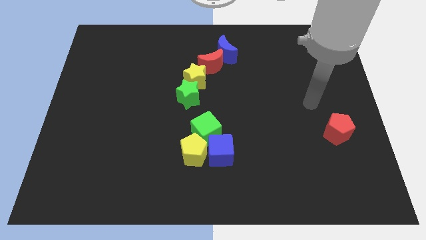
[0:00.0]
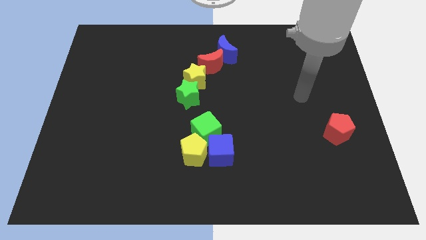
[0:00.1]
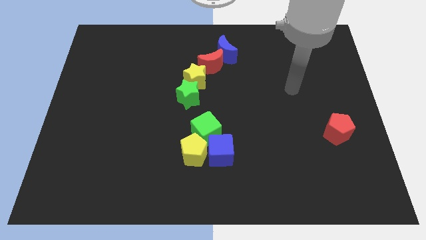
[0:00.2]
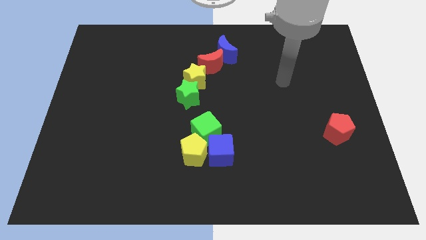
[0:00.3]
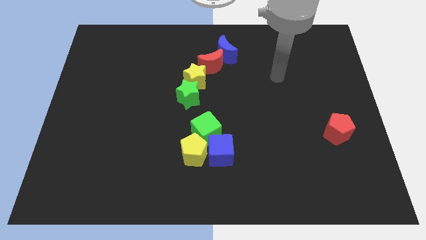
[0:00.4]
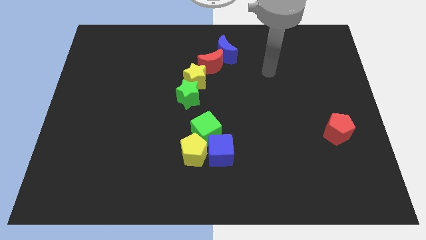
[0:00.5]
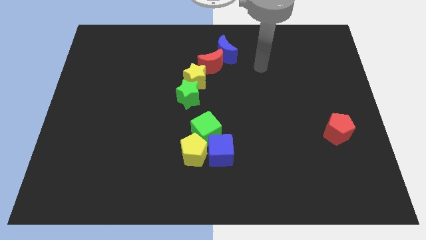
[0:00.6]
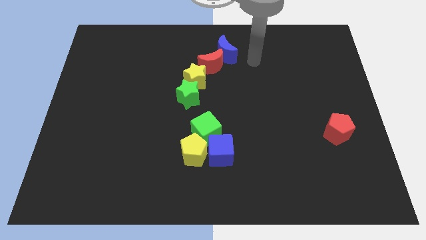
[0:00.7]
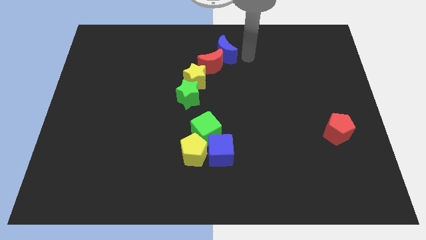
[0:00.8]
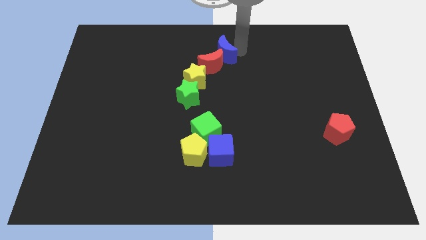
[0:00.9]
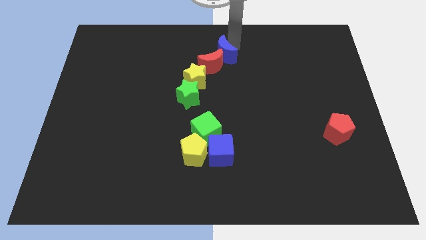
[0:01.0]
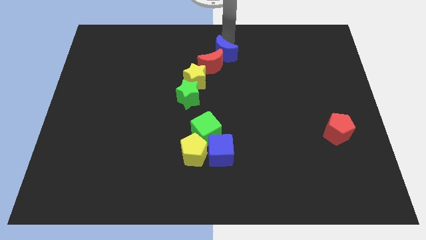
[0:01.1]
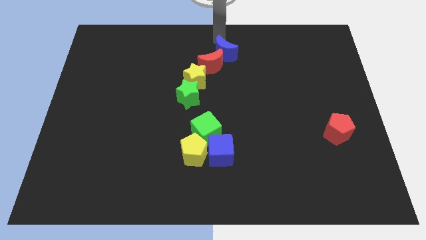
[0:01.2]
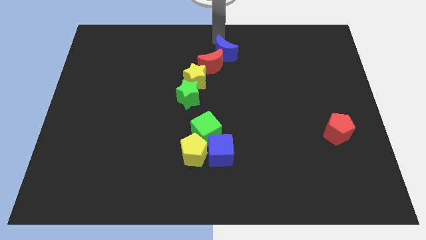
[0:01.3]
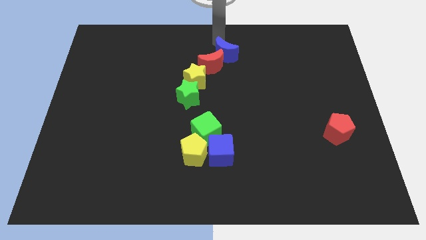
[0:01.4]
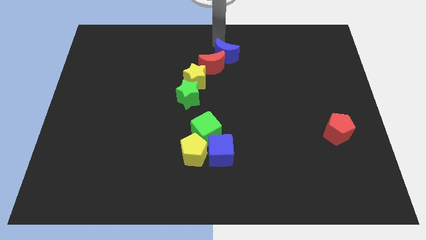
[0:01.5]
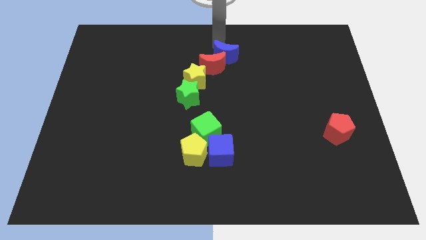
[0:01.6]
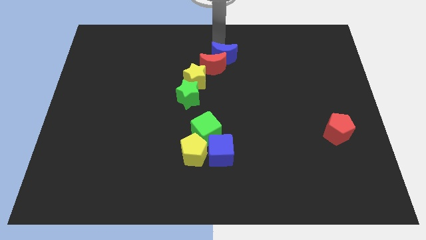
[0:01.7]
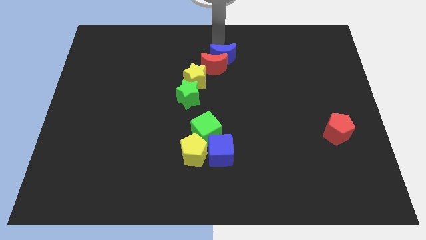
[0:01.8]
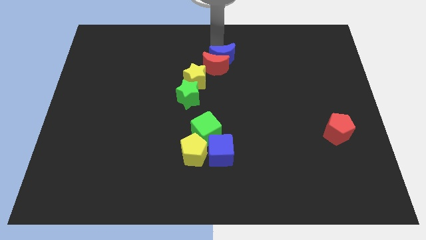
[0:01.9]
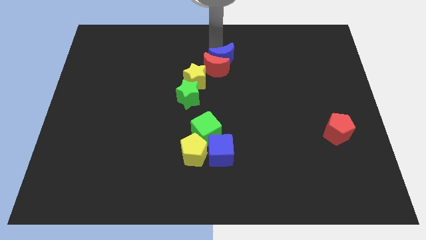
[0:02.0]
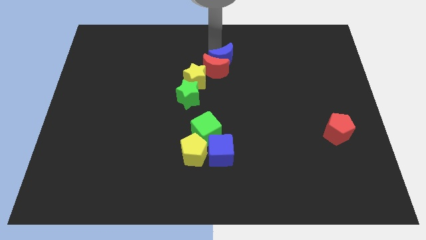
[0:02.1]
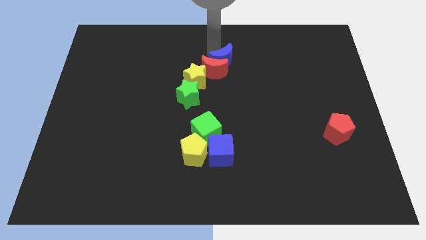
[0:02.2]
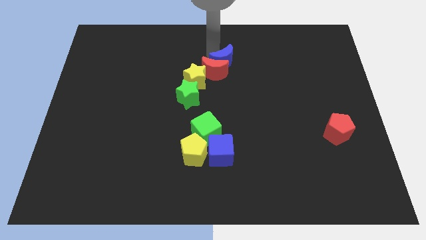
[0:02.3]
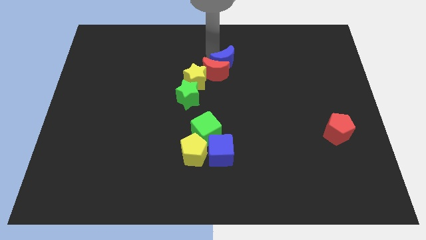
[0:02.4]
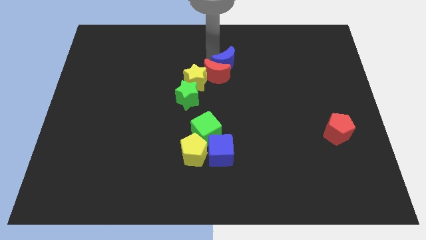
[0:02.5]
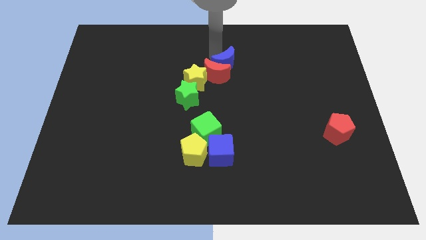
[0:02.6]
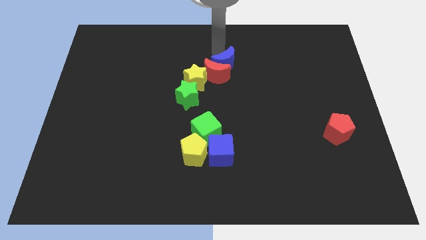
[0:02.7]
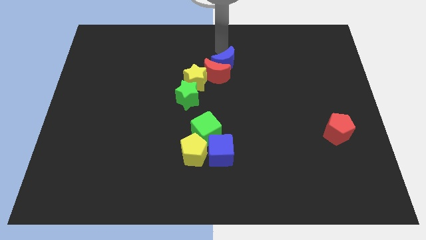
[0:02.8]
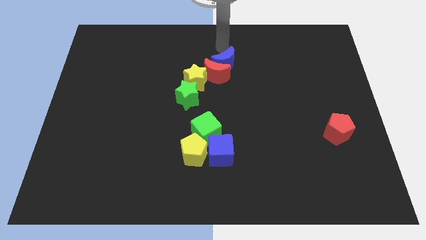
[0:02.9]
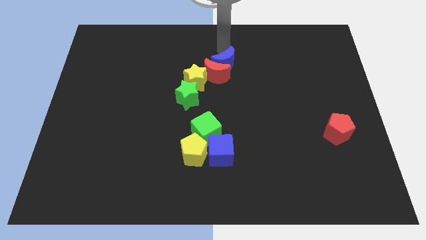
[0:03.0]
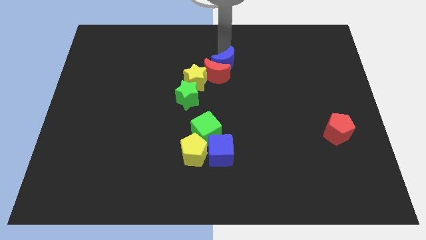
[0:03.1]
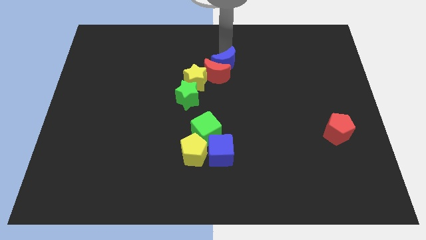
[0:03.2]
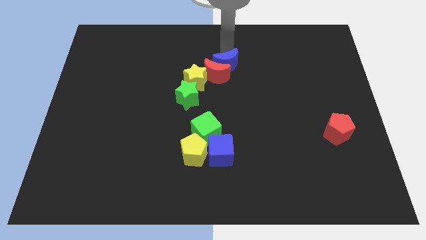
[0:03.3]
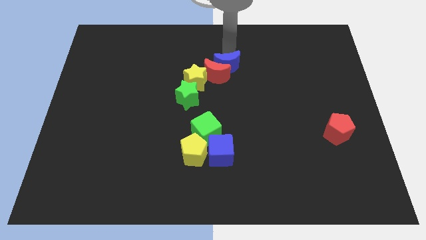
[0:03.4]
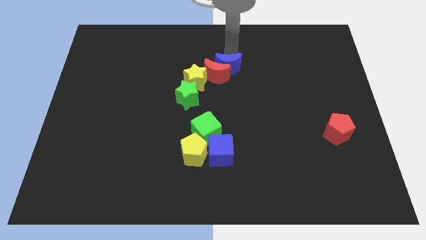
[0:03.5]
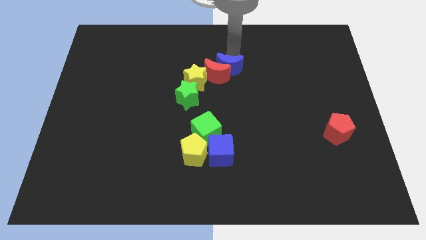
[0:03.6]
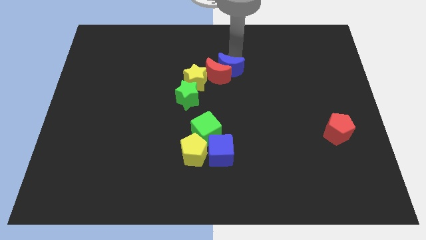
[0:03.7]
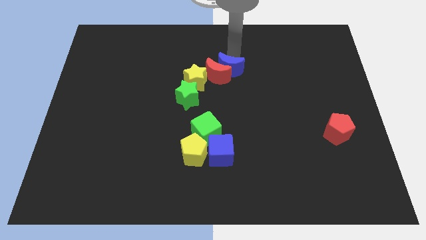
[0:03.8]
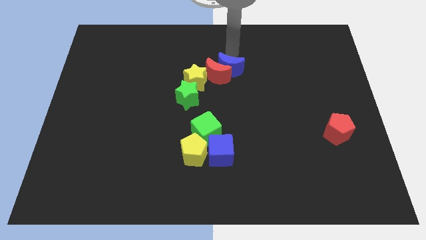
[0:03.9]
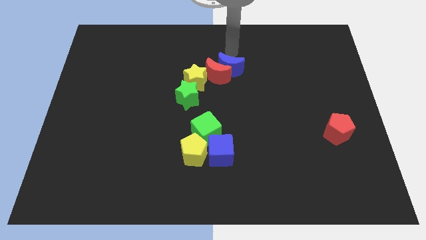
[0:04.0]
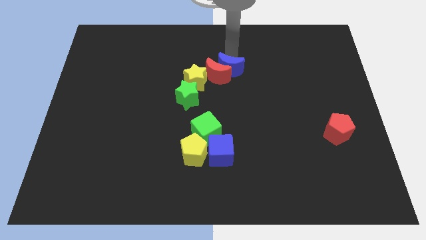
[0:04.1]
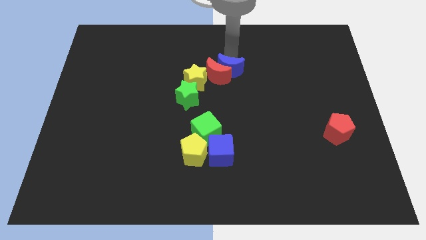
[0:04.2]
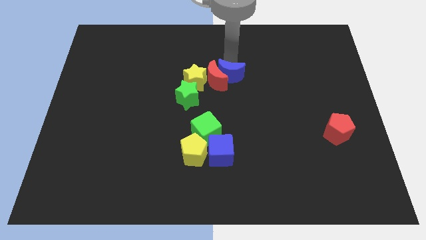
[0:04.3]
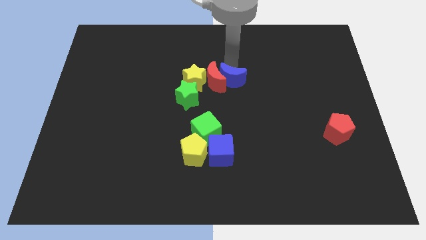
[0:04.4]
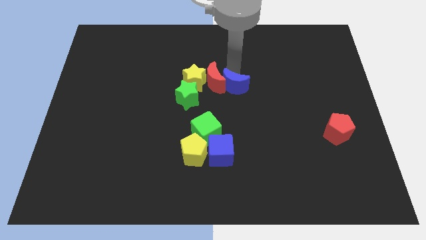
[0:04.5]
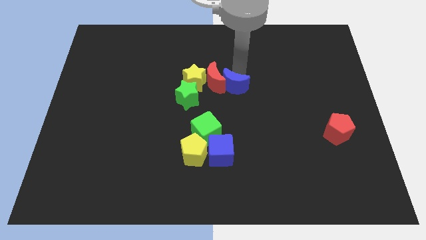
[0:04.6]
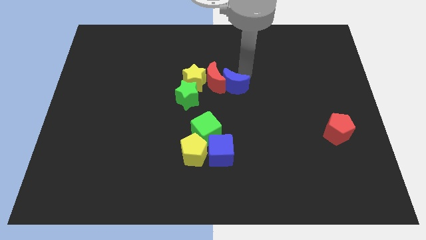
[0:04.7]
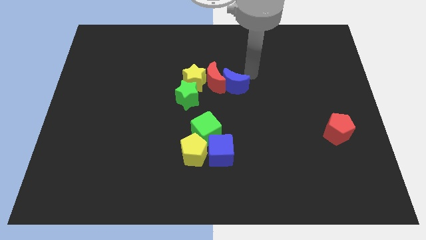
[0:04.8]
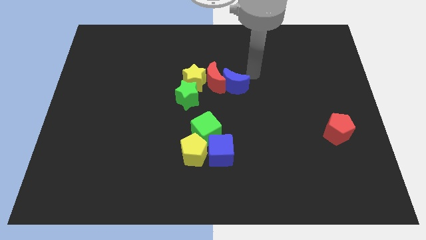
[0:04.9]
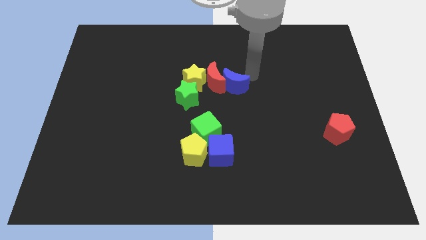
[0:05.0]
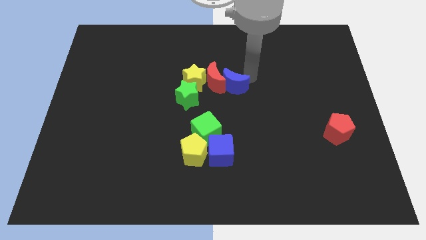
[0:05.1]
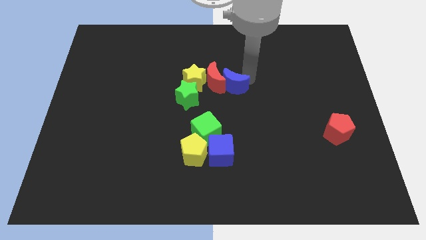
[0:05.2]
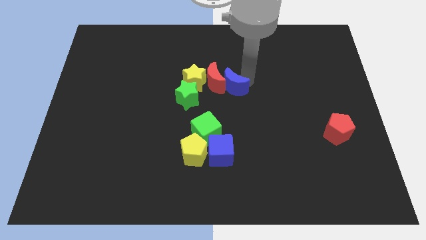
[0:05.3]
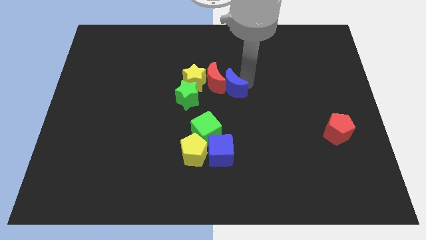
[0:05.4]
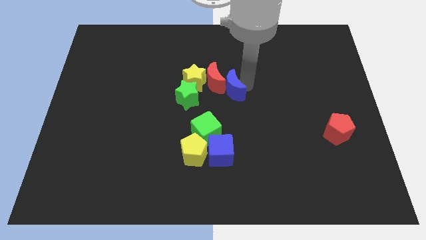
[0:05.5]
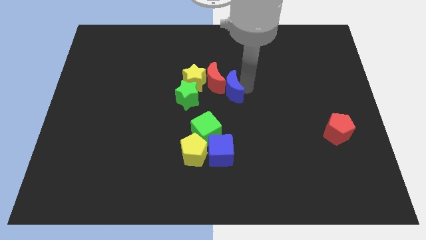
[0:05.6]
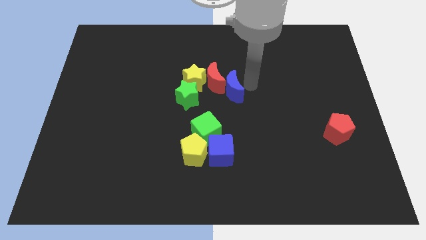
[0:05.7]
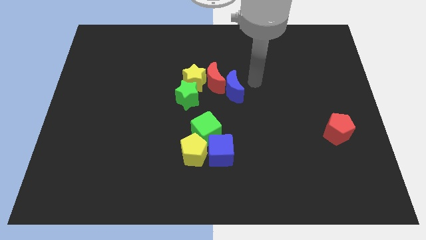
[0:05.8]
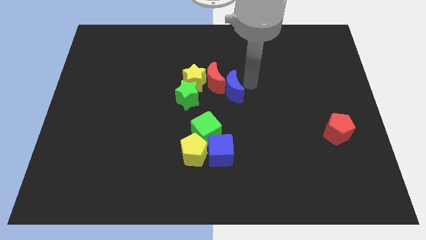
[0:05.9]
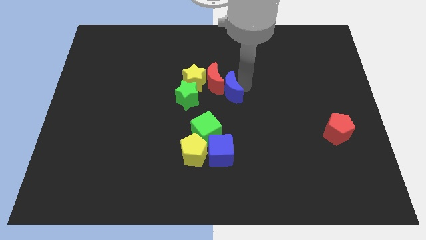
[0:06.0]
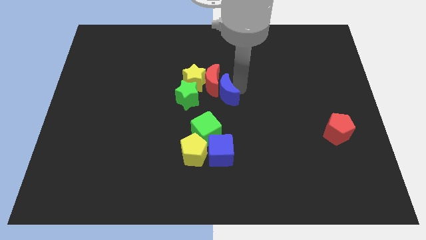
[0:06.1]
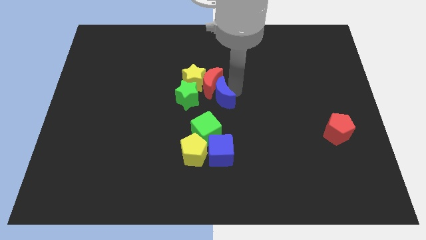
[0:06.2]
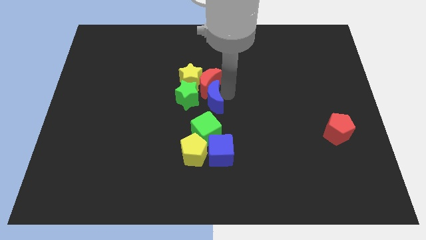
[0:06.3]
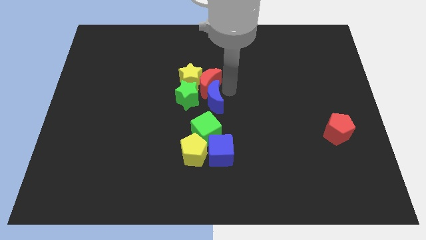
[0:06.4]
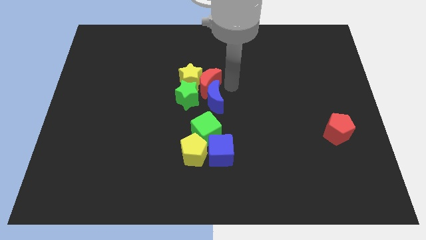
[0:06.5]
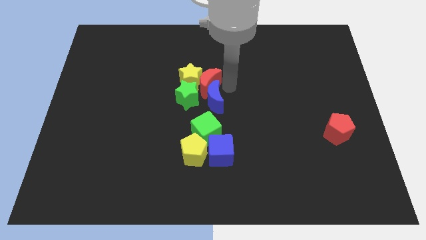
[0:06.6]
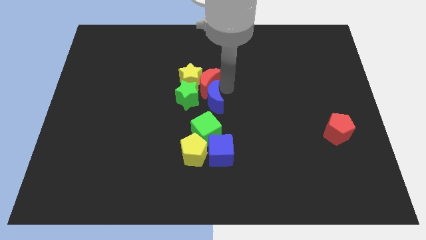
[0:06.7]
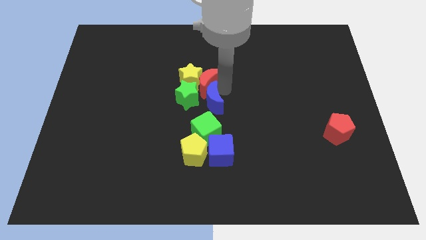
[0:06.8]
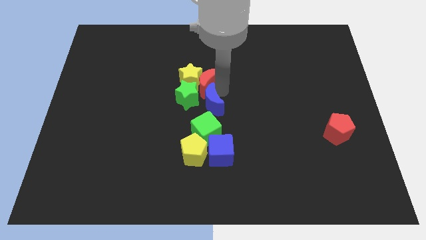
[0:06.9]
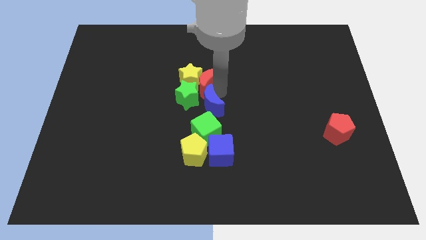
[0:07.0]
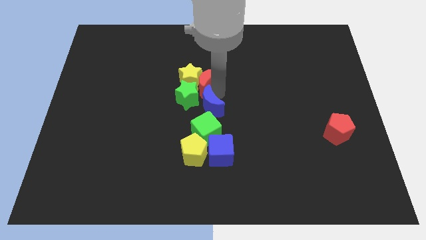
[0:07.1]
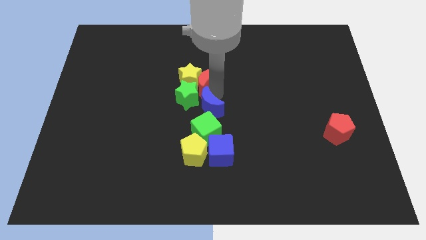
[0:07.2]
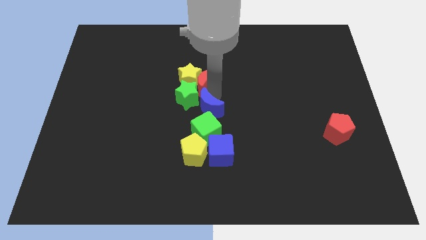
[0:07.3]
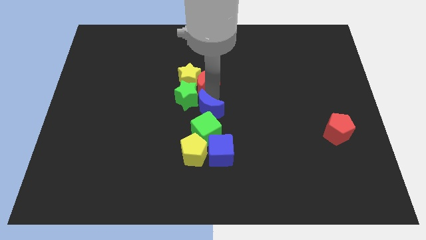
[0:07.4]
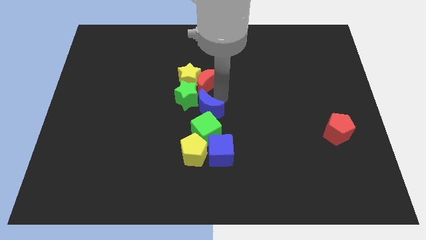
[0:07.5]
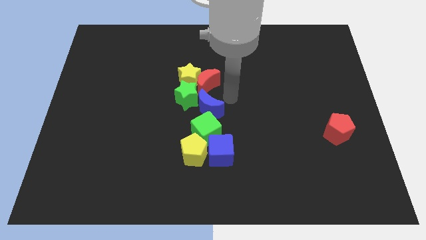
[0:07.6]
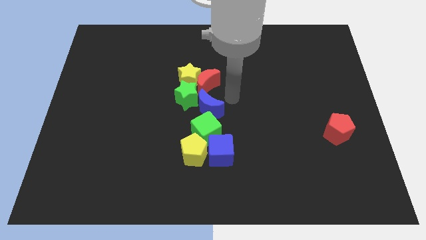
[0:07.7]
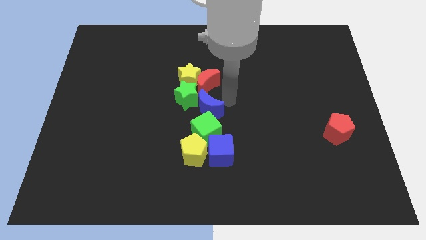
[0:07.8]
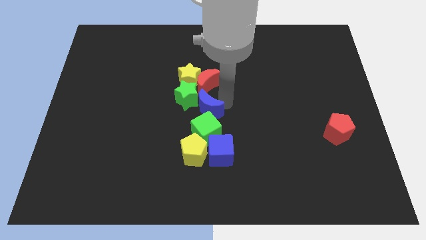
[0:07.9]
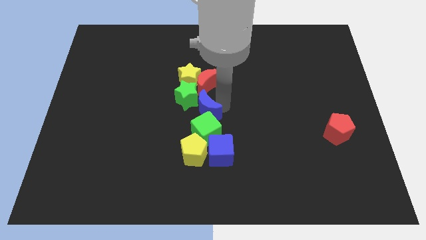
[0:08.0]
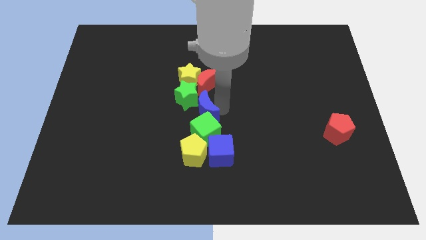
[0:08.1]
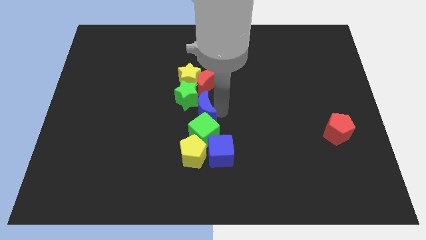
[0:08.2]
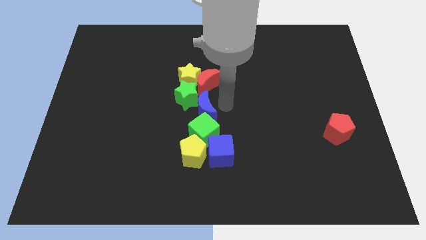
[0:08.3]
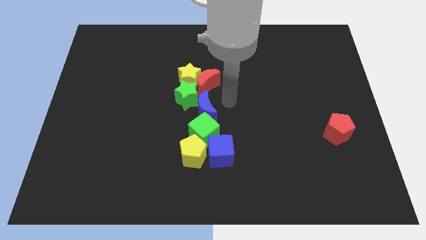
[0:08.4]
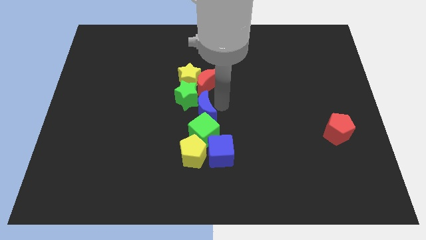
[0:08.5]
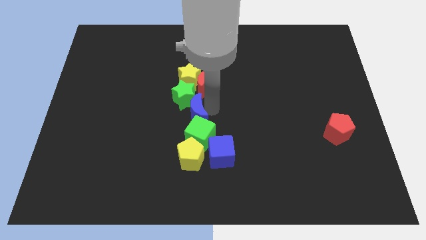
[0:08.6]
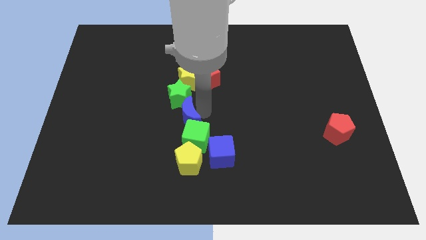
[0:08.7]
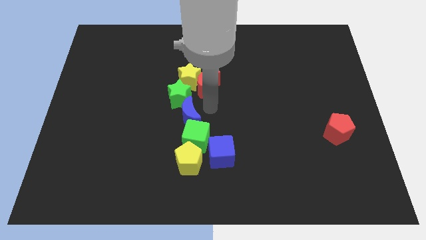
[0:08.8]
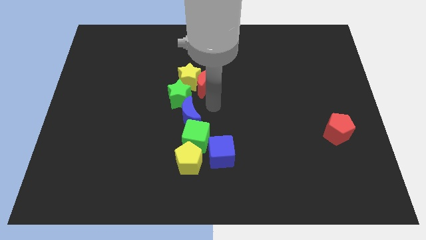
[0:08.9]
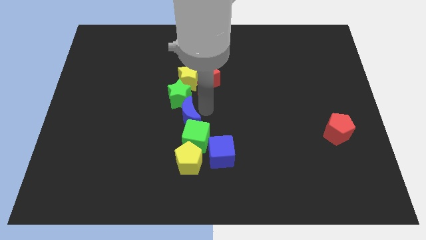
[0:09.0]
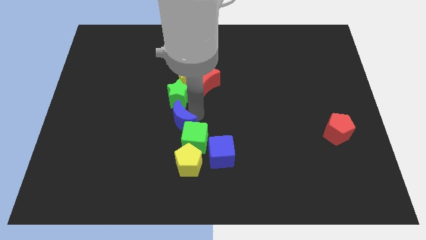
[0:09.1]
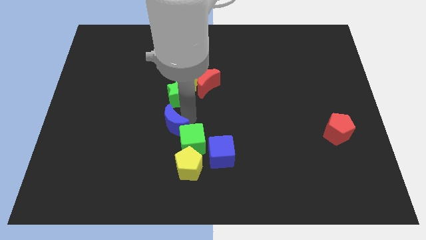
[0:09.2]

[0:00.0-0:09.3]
slide the blue moon to the left of the green cube
